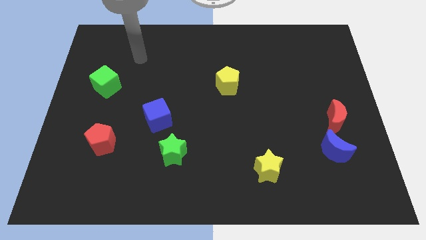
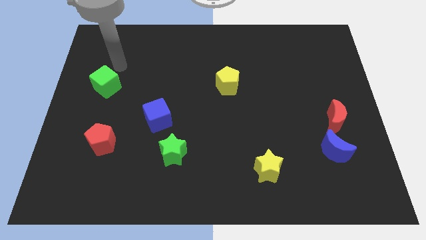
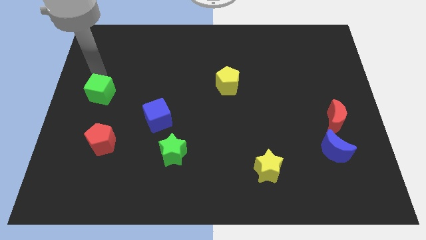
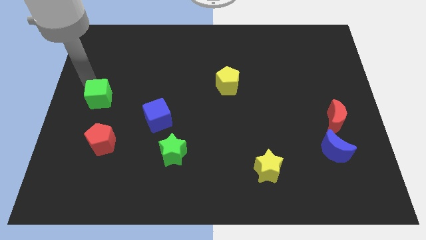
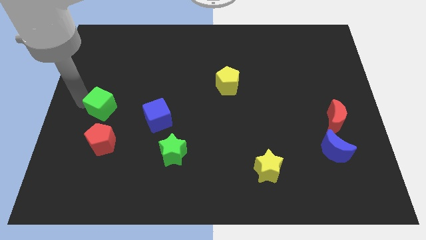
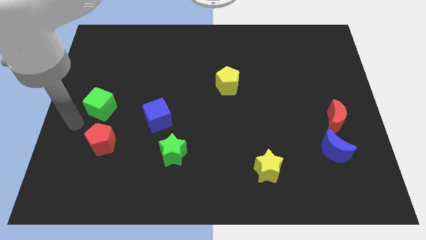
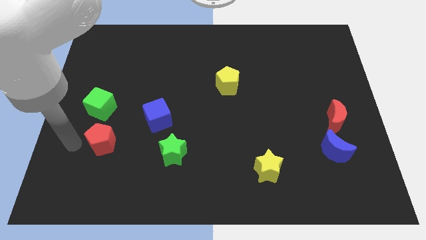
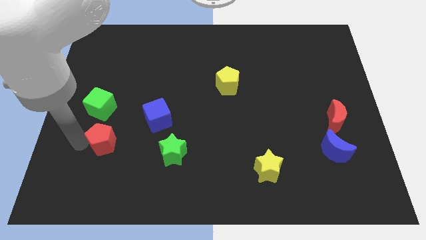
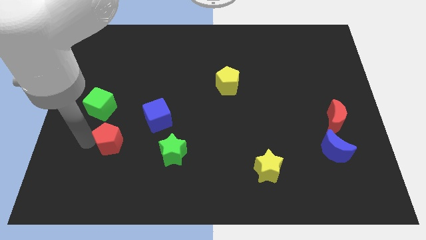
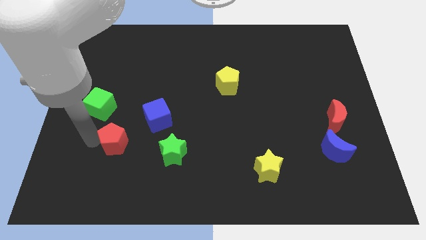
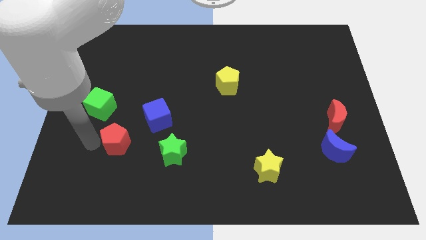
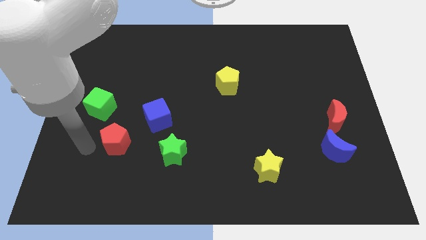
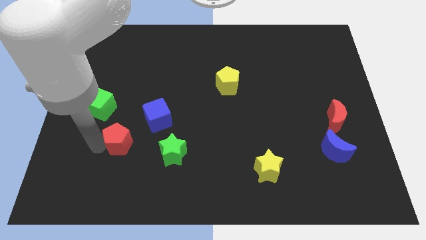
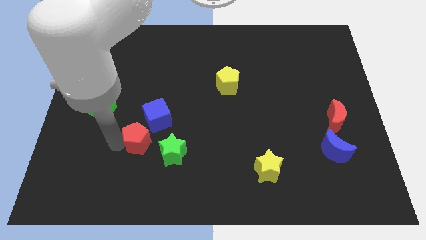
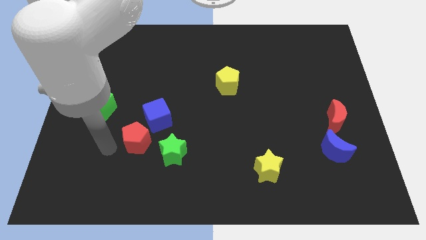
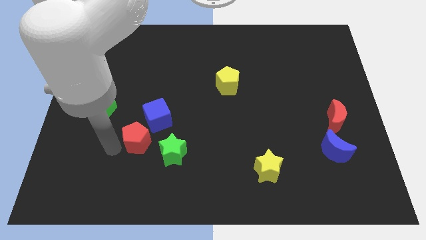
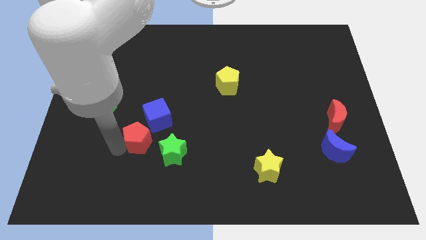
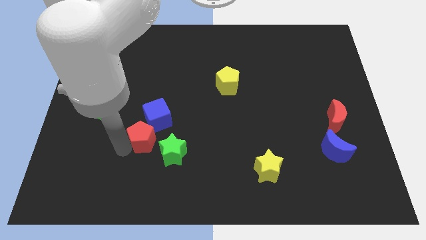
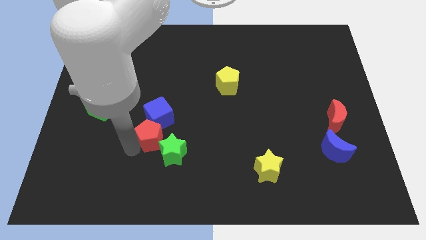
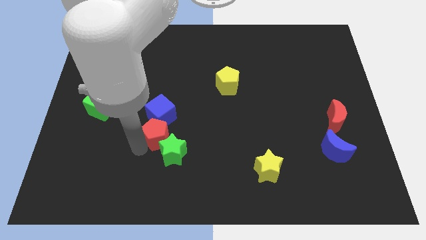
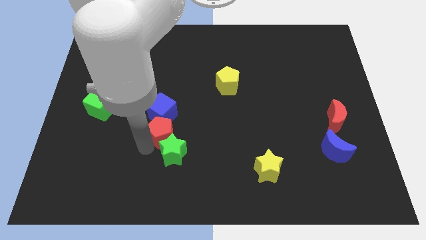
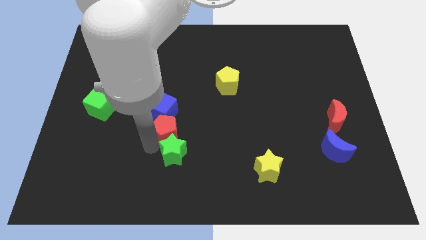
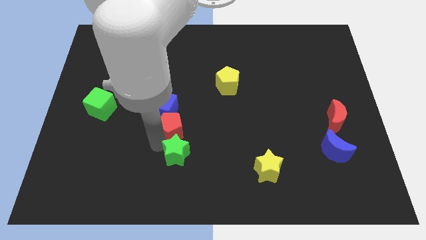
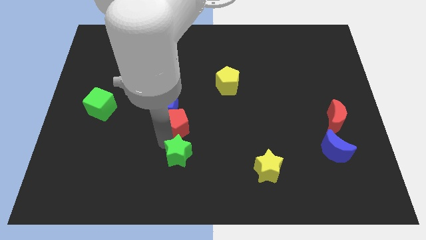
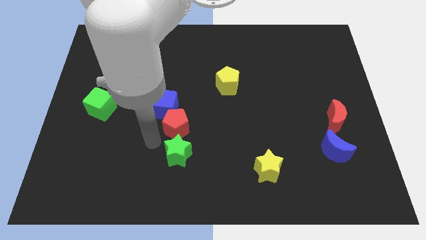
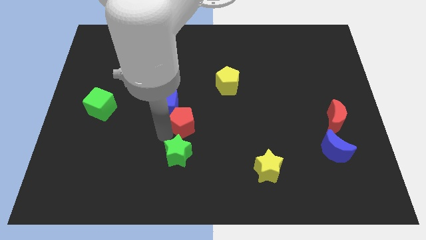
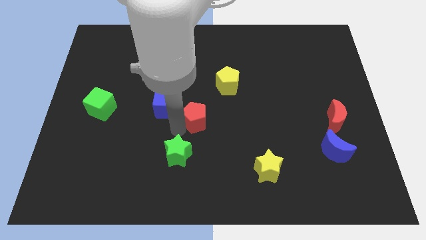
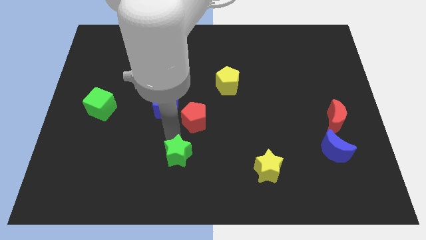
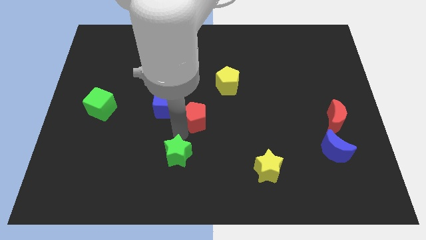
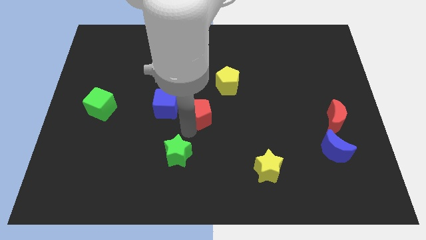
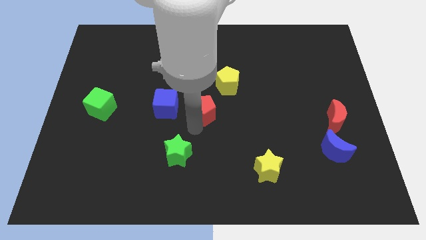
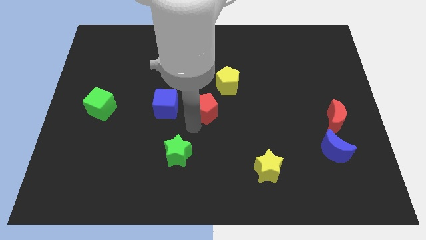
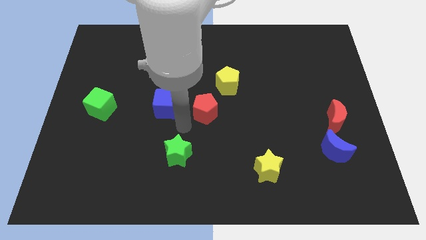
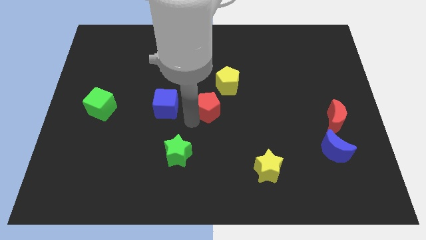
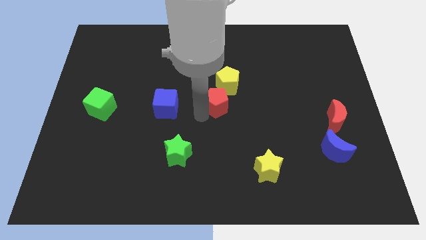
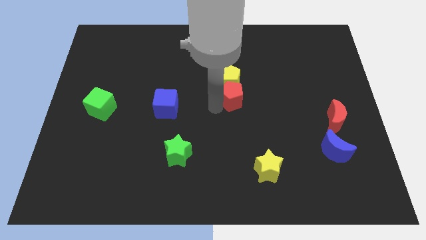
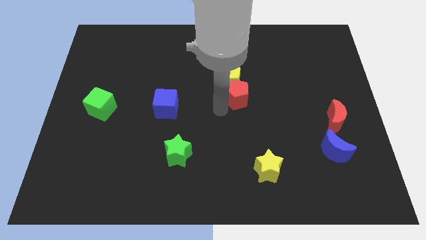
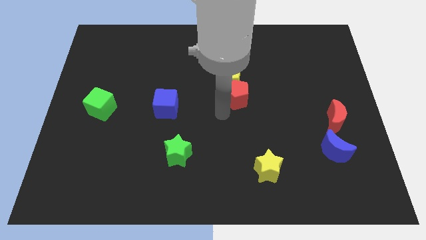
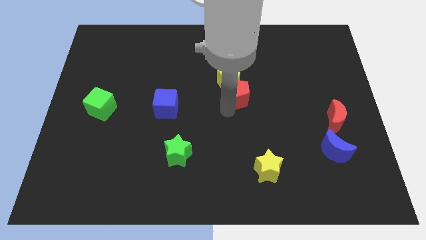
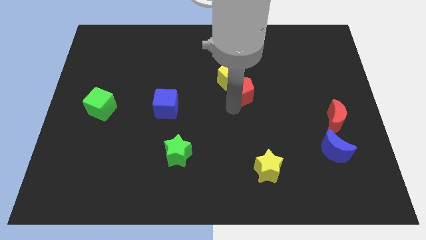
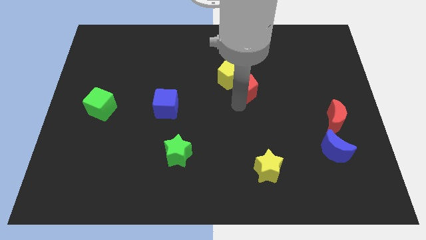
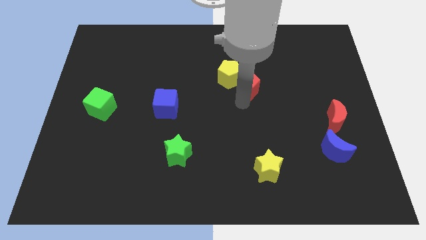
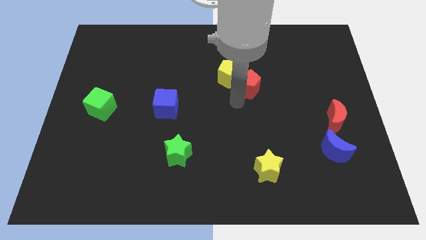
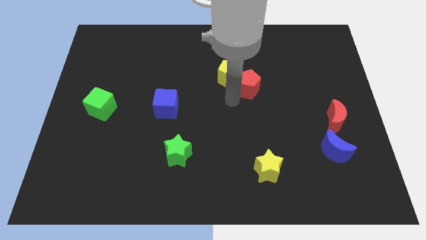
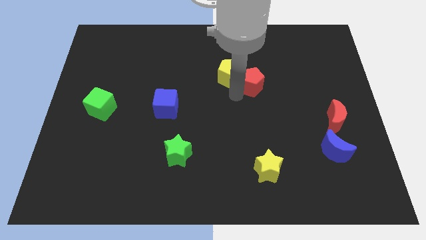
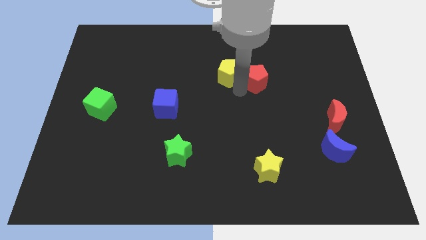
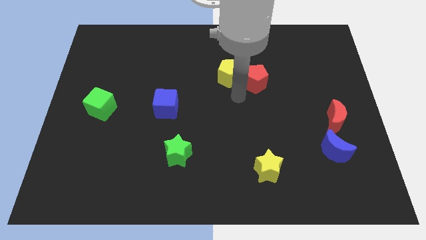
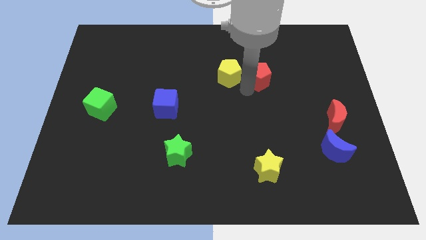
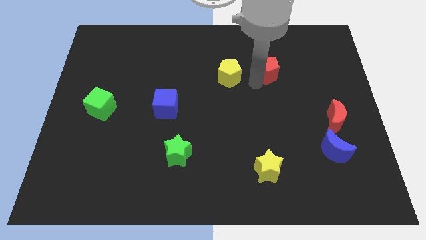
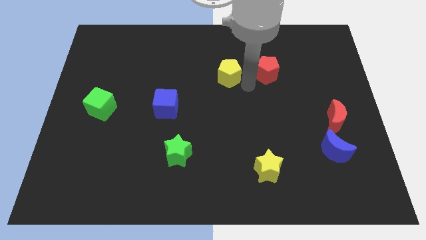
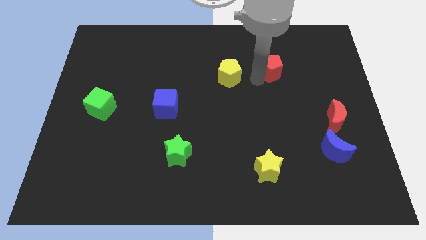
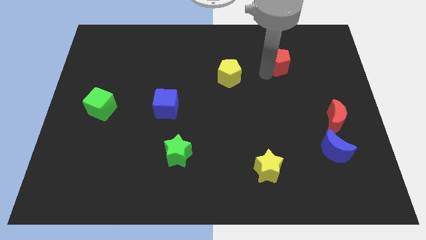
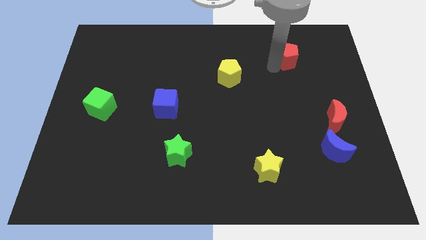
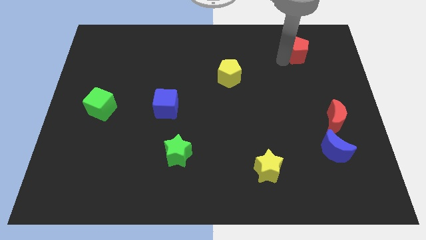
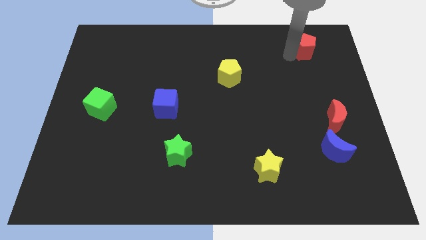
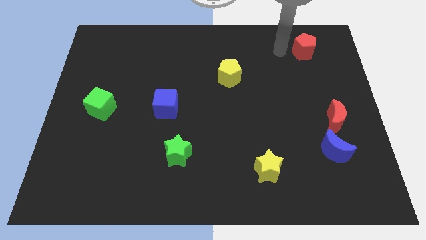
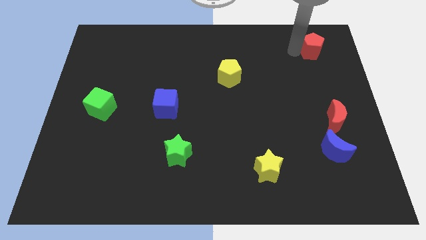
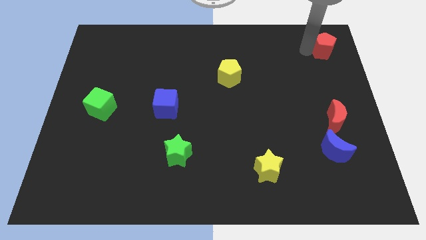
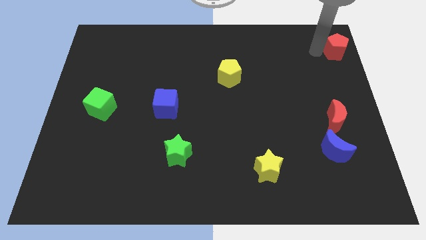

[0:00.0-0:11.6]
push the red pentagon to the upper right corner
